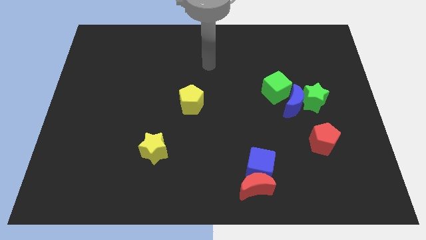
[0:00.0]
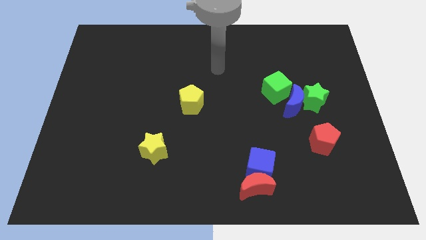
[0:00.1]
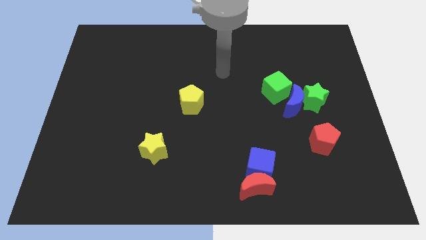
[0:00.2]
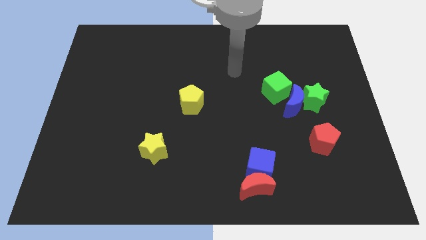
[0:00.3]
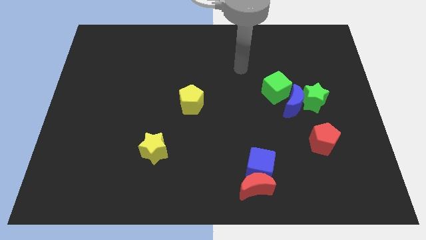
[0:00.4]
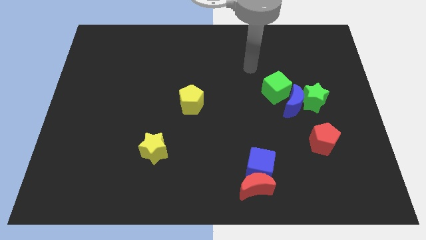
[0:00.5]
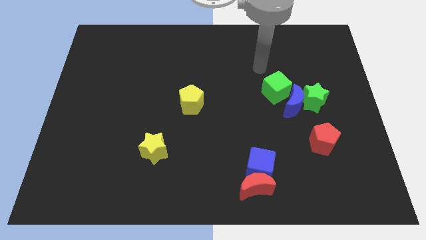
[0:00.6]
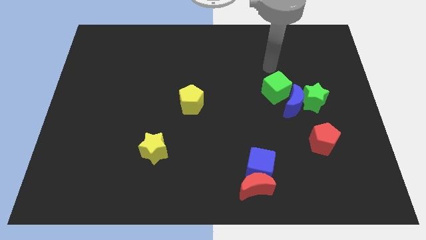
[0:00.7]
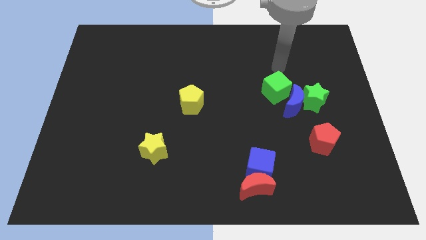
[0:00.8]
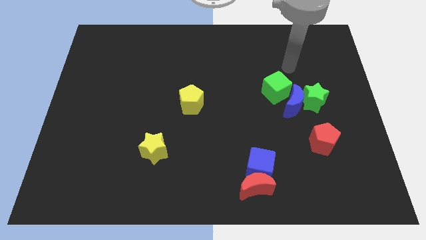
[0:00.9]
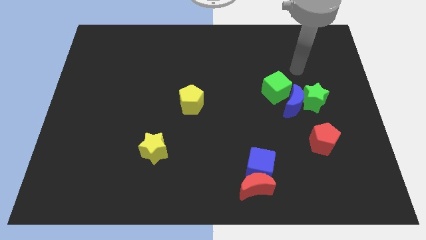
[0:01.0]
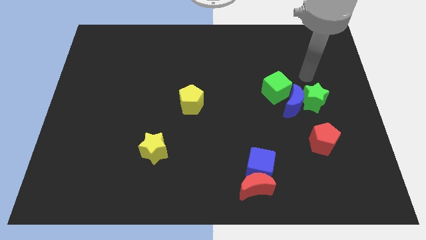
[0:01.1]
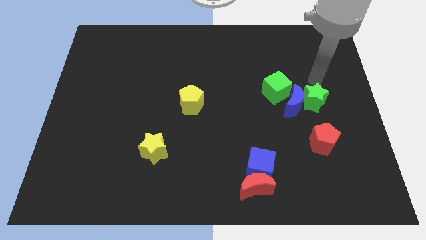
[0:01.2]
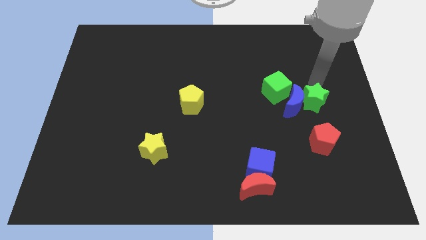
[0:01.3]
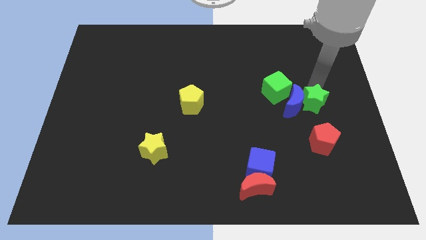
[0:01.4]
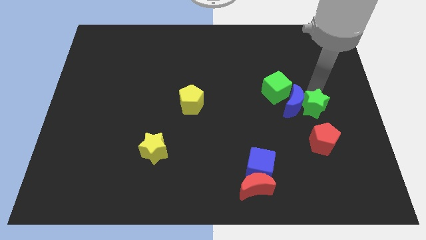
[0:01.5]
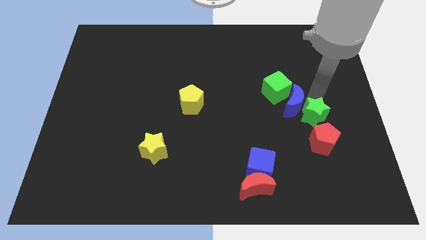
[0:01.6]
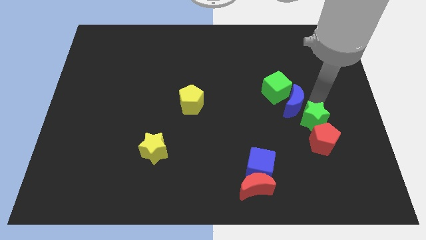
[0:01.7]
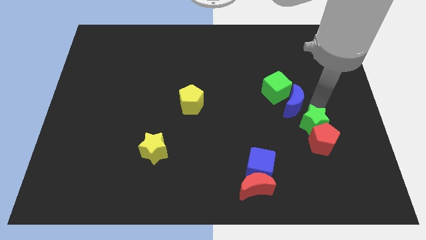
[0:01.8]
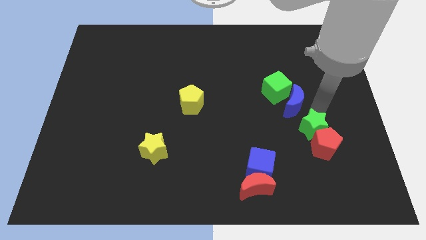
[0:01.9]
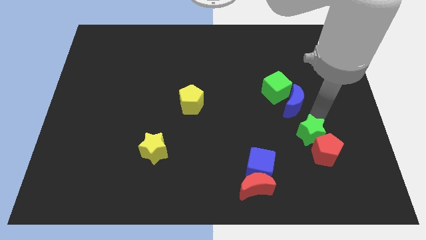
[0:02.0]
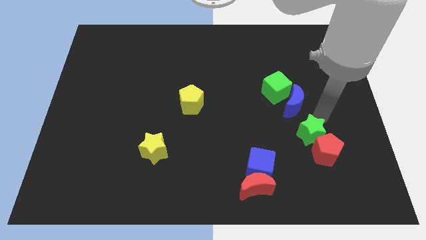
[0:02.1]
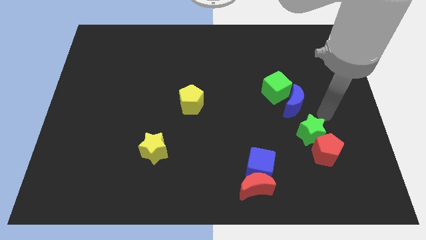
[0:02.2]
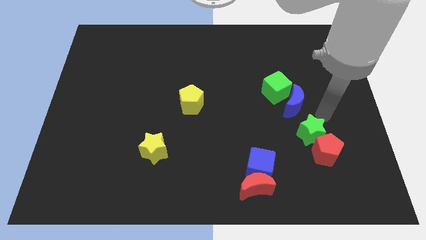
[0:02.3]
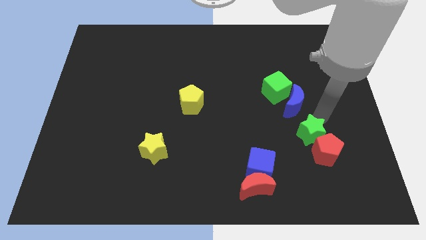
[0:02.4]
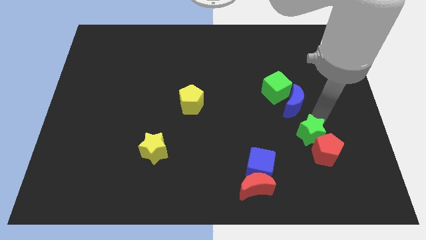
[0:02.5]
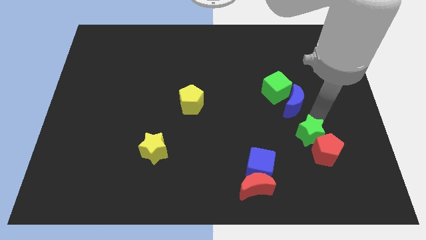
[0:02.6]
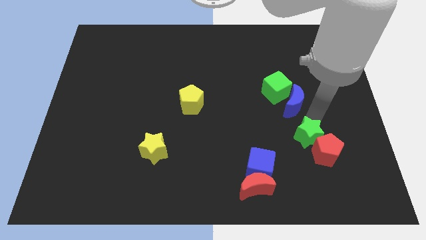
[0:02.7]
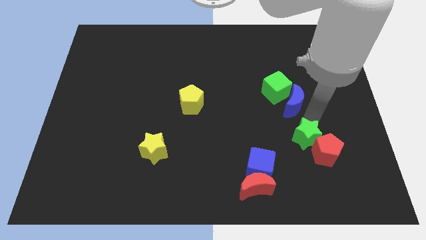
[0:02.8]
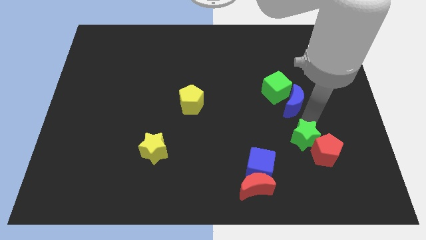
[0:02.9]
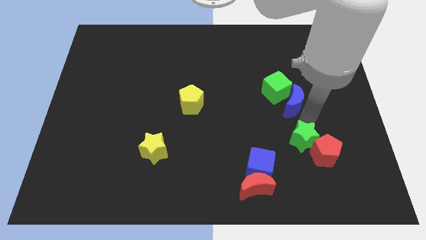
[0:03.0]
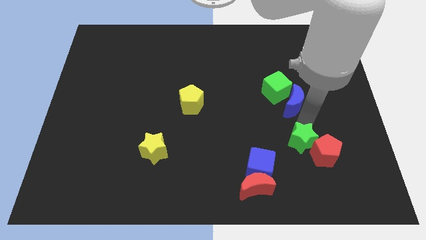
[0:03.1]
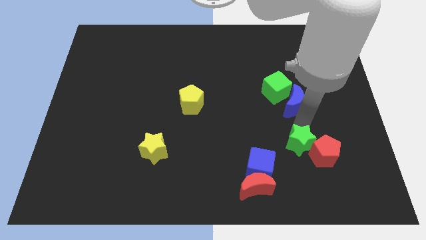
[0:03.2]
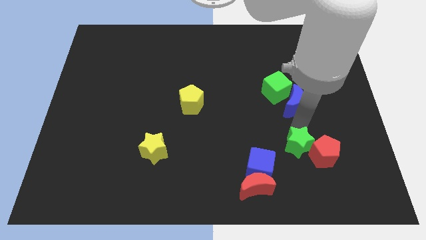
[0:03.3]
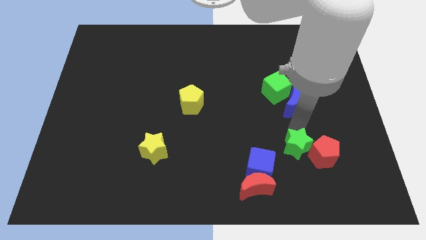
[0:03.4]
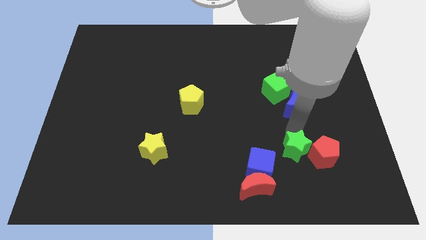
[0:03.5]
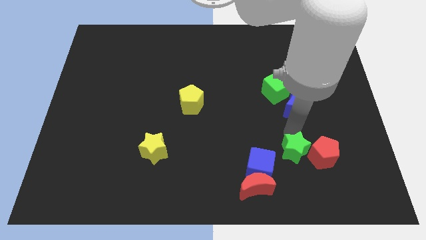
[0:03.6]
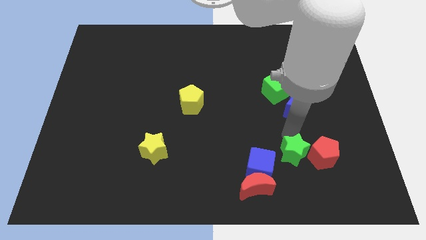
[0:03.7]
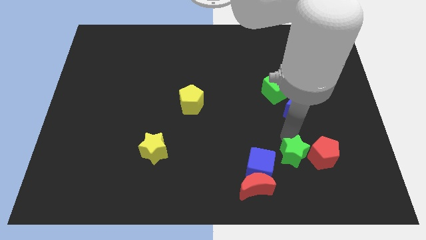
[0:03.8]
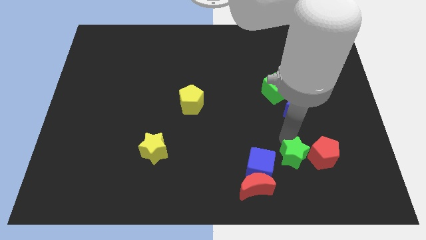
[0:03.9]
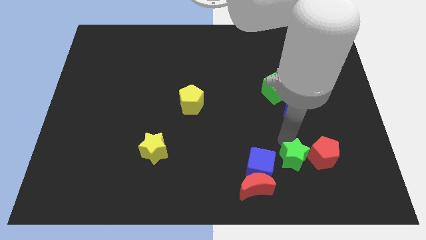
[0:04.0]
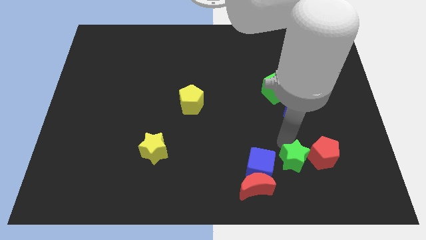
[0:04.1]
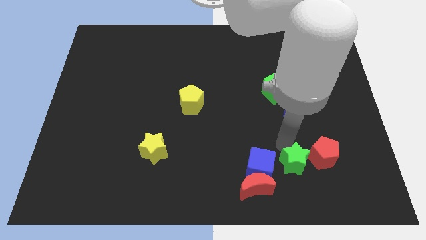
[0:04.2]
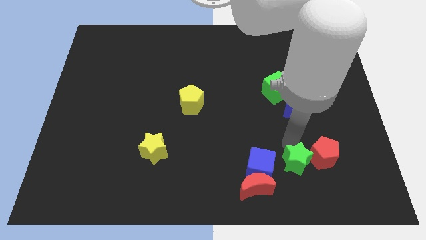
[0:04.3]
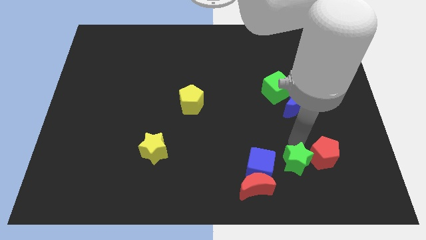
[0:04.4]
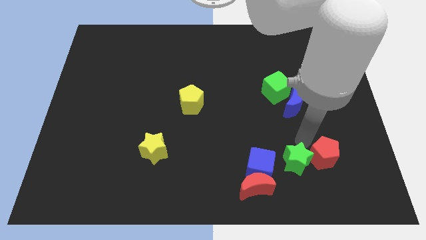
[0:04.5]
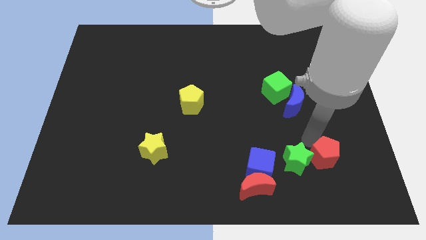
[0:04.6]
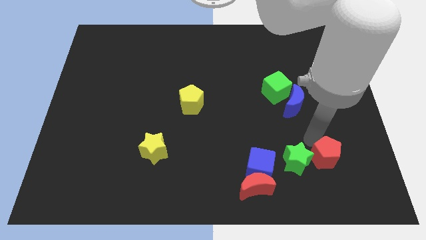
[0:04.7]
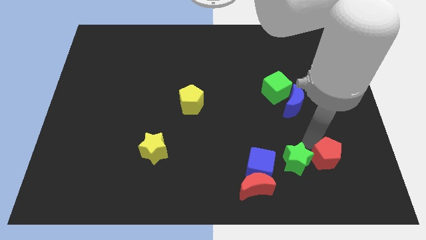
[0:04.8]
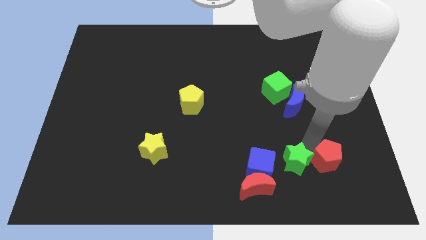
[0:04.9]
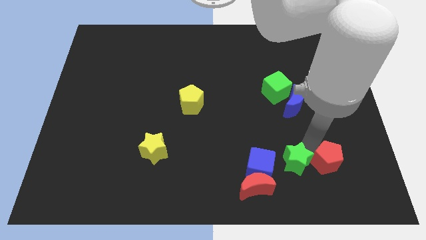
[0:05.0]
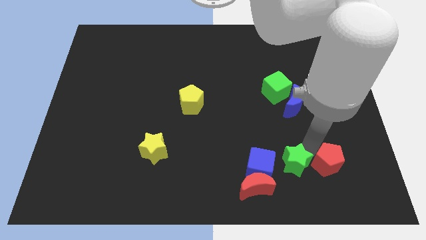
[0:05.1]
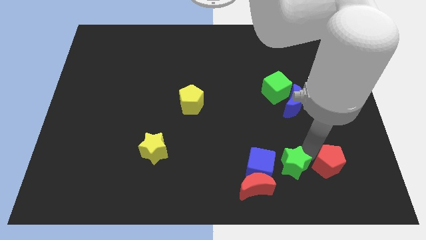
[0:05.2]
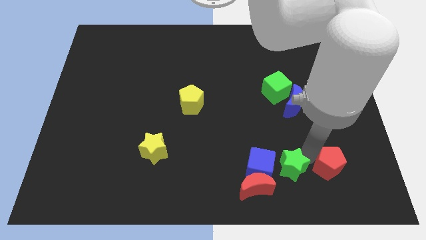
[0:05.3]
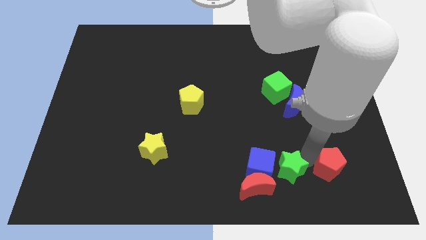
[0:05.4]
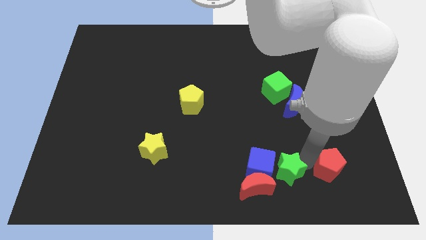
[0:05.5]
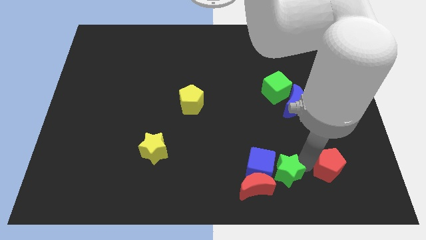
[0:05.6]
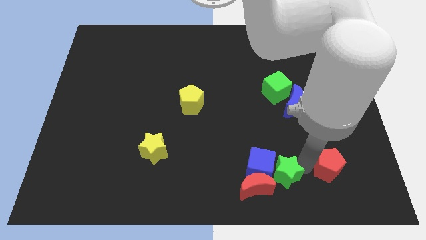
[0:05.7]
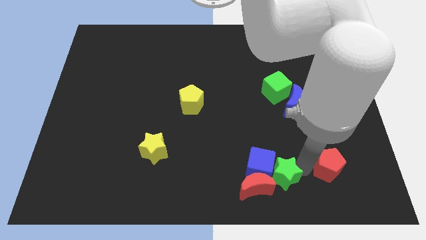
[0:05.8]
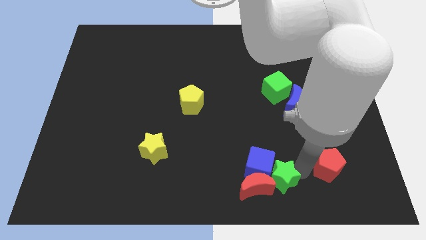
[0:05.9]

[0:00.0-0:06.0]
slide the green star towards the red moon

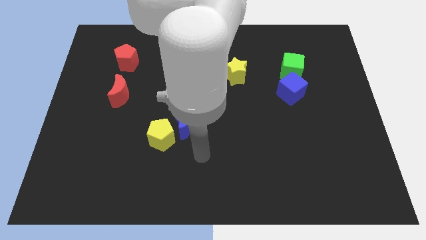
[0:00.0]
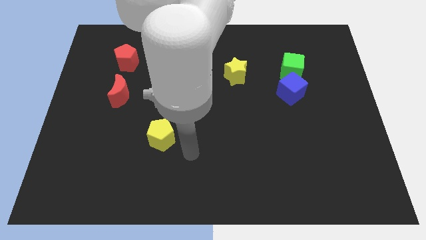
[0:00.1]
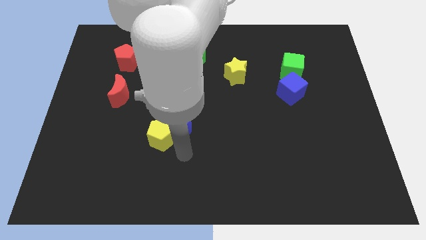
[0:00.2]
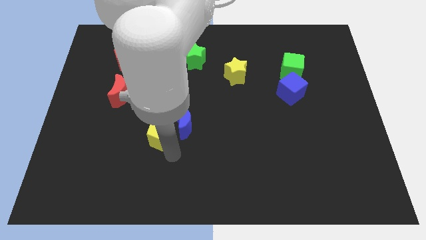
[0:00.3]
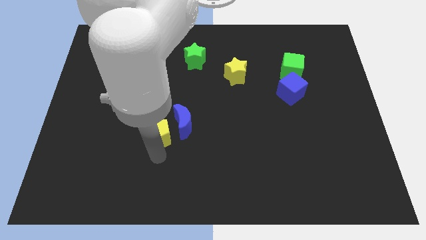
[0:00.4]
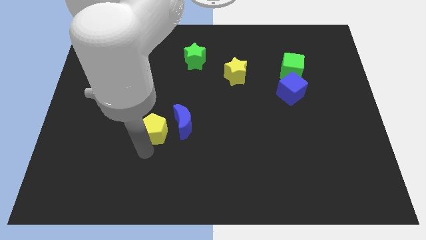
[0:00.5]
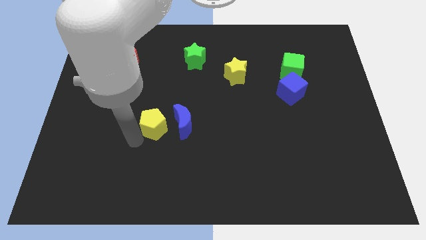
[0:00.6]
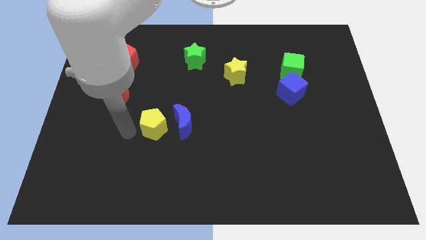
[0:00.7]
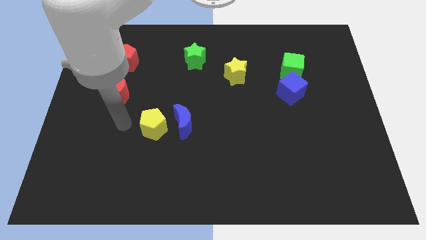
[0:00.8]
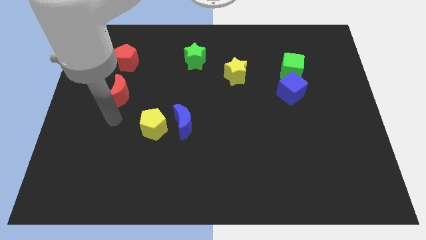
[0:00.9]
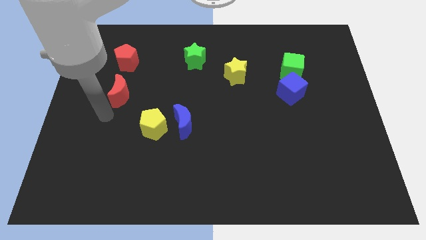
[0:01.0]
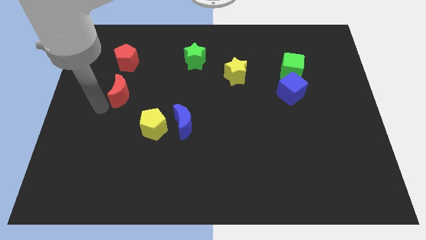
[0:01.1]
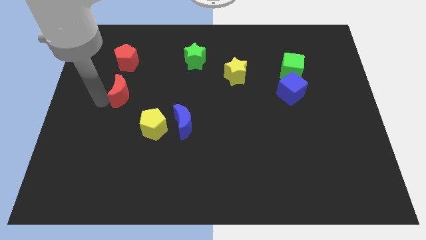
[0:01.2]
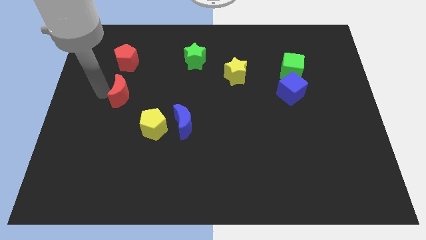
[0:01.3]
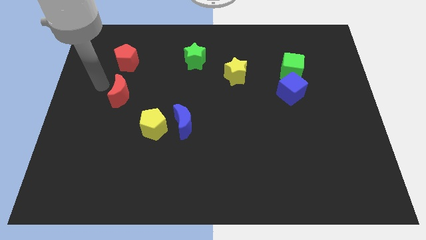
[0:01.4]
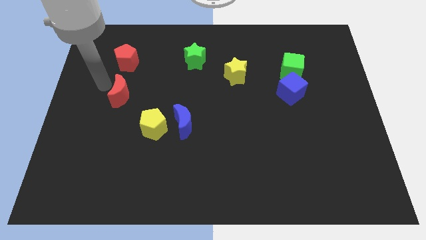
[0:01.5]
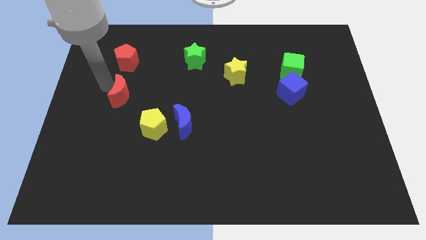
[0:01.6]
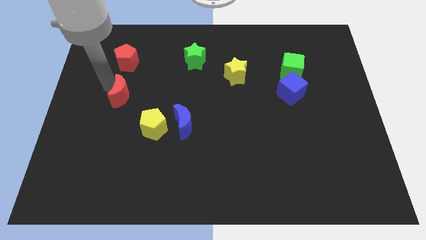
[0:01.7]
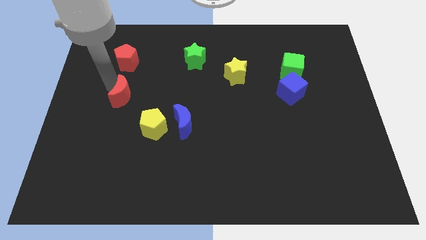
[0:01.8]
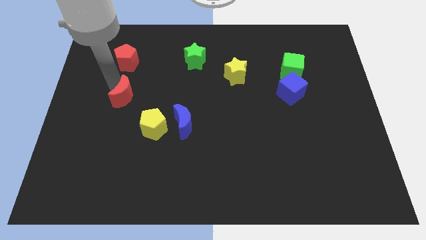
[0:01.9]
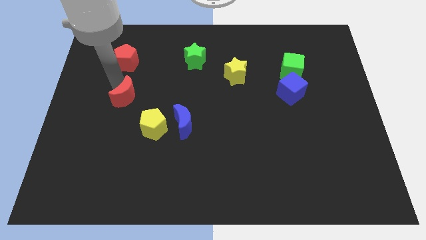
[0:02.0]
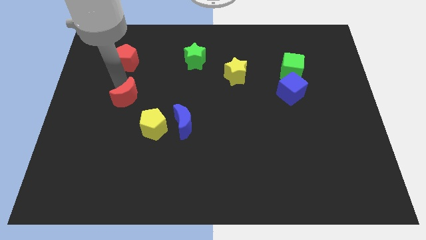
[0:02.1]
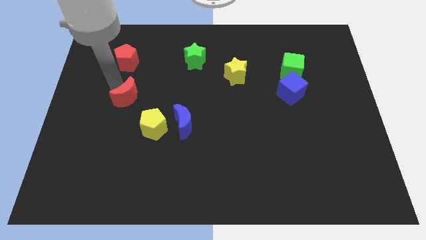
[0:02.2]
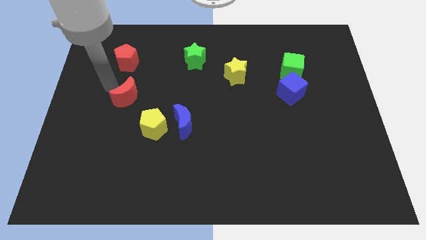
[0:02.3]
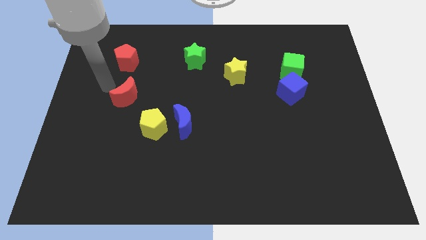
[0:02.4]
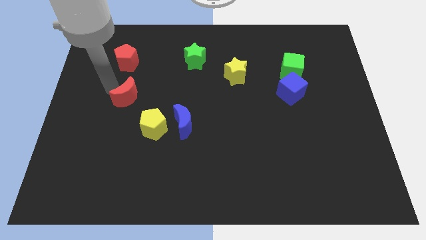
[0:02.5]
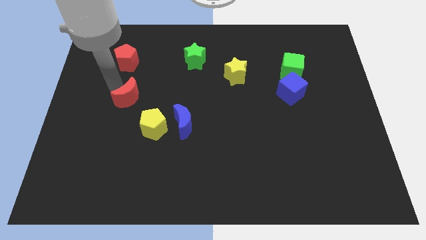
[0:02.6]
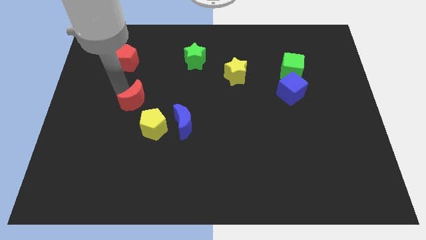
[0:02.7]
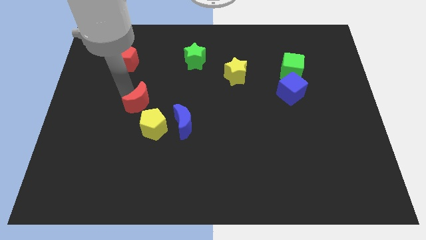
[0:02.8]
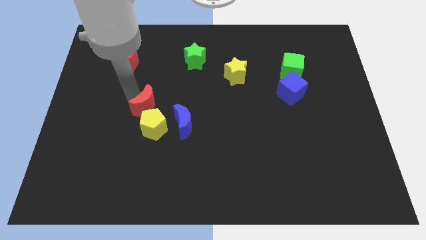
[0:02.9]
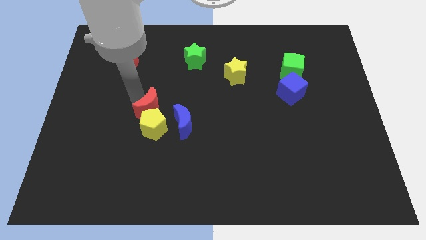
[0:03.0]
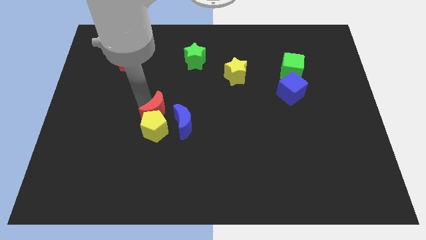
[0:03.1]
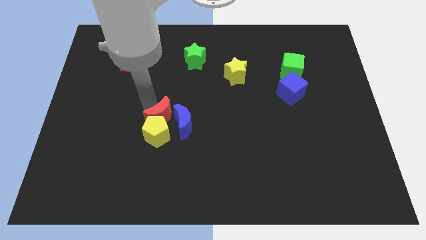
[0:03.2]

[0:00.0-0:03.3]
push the red moon close to the blue moon
